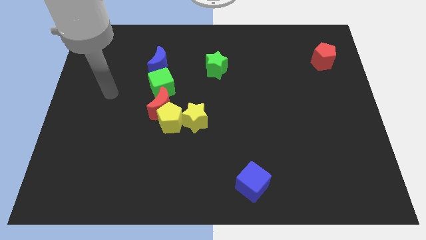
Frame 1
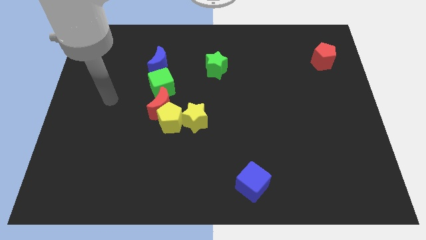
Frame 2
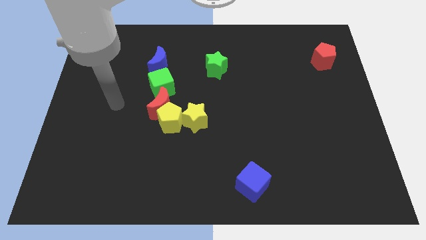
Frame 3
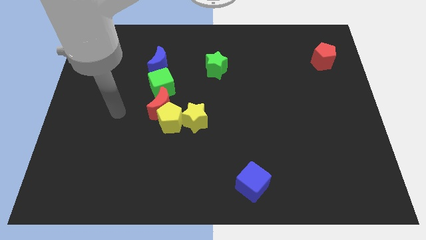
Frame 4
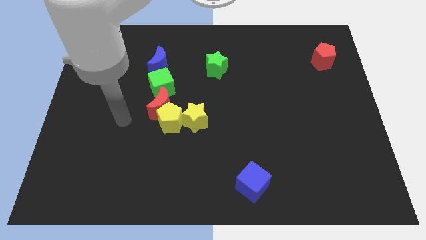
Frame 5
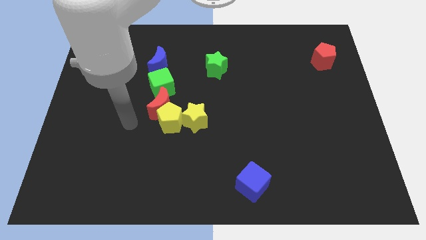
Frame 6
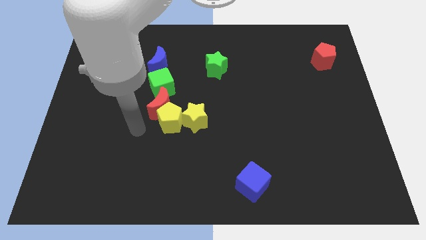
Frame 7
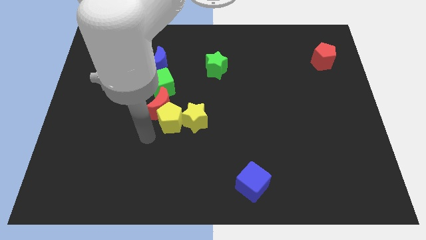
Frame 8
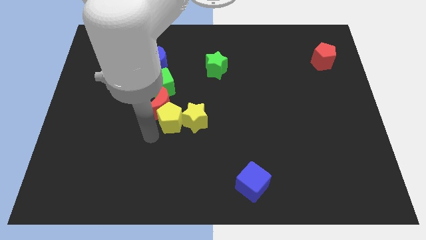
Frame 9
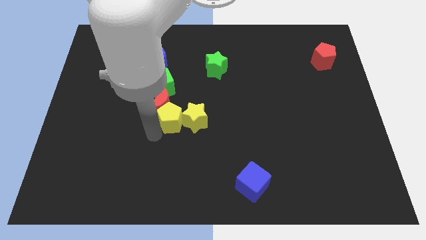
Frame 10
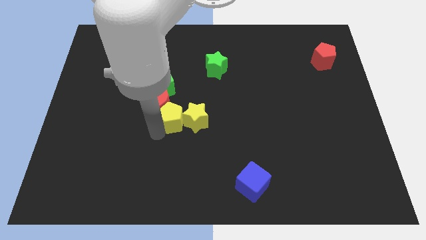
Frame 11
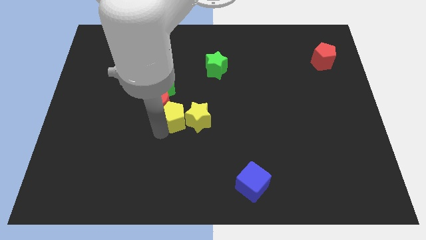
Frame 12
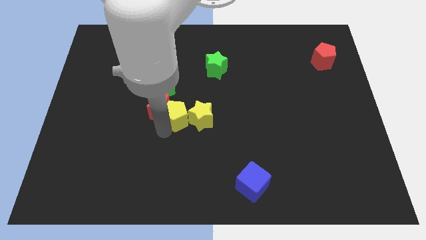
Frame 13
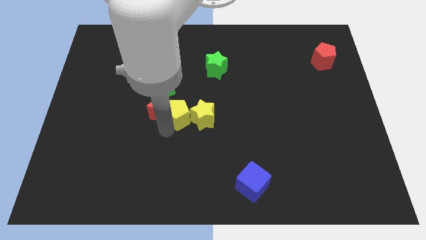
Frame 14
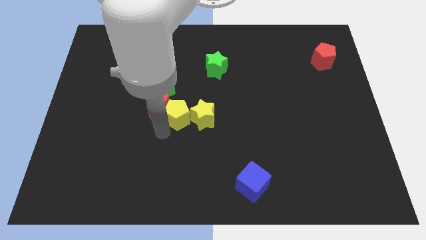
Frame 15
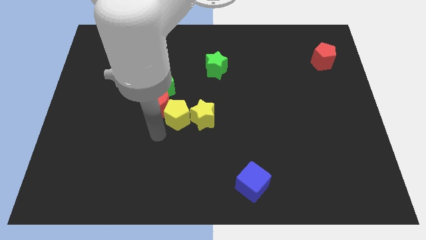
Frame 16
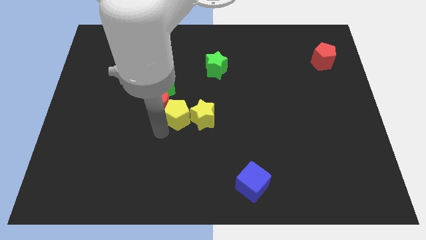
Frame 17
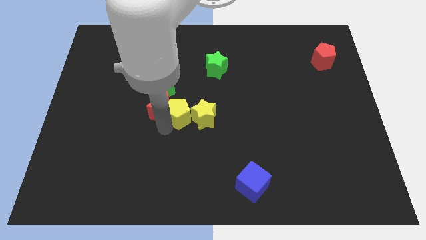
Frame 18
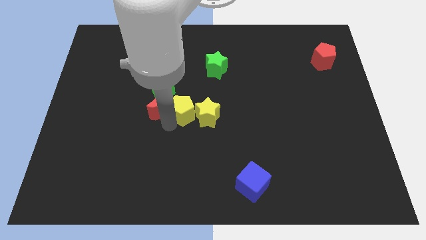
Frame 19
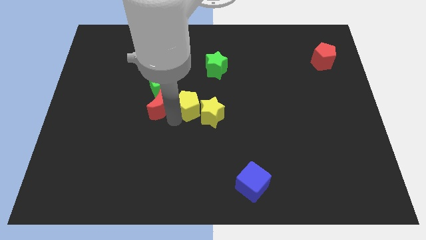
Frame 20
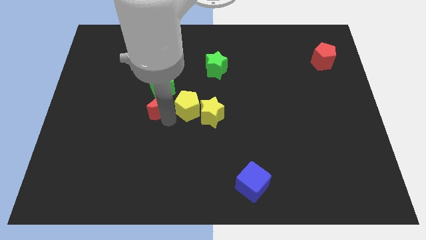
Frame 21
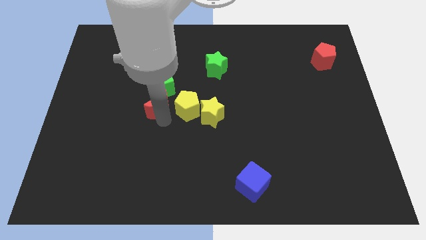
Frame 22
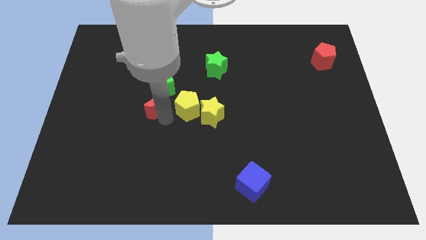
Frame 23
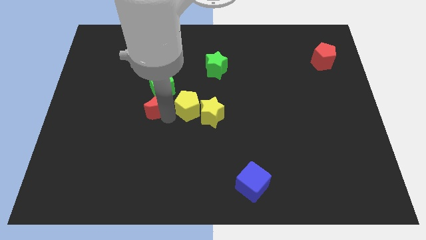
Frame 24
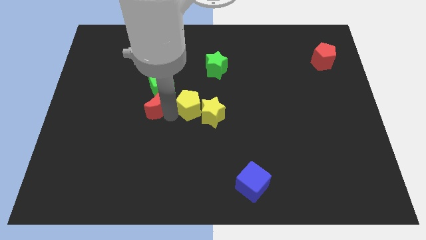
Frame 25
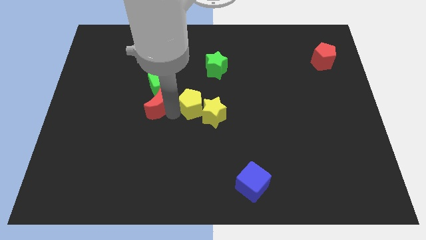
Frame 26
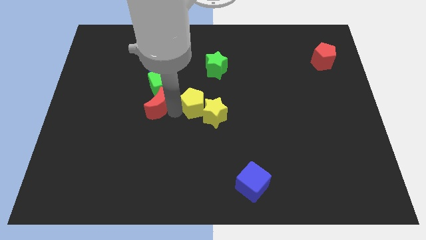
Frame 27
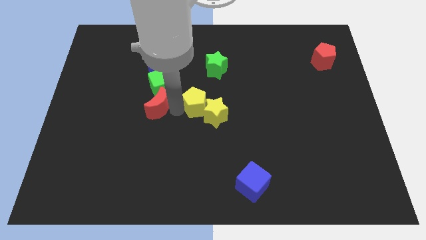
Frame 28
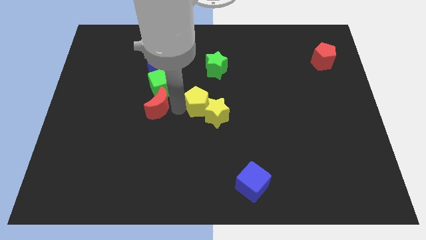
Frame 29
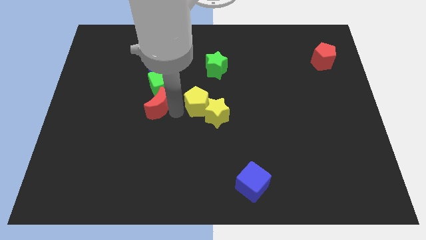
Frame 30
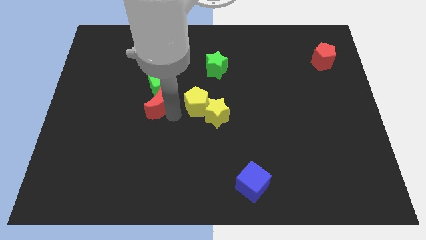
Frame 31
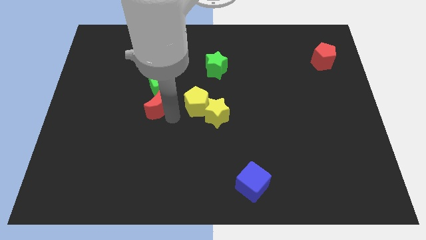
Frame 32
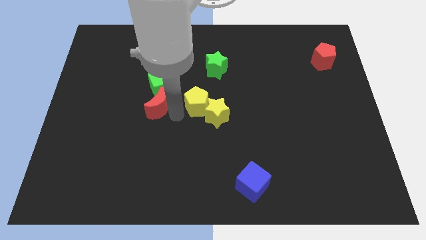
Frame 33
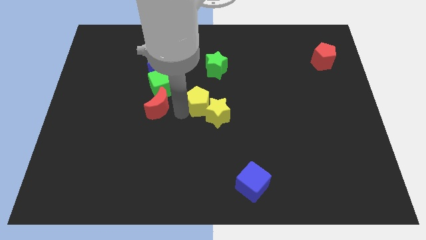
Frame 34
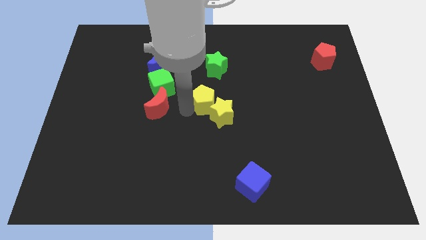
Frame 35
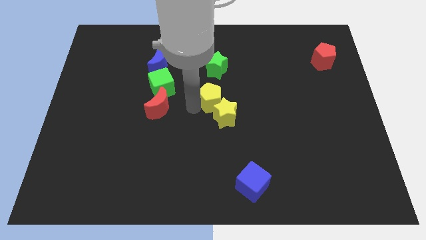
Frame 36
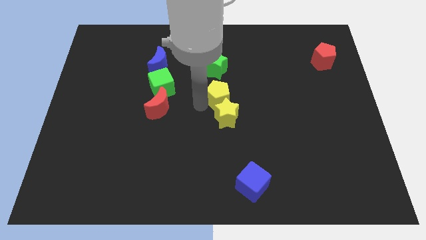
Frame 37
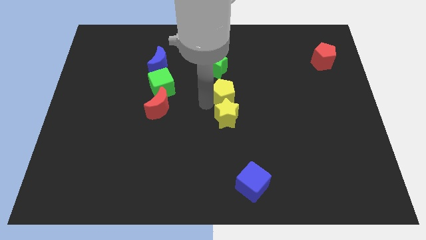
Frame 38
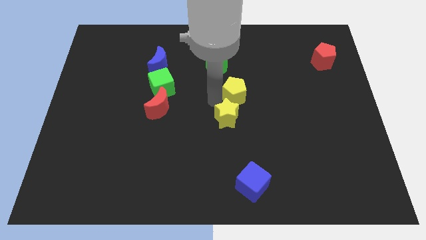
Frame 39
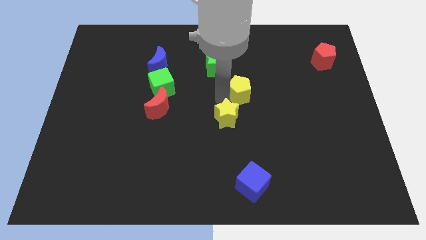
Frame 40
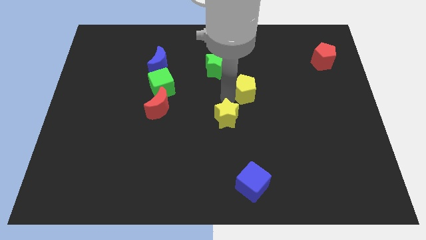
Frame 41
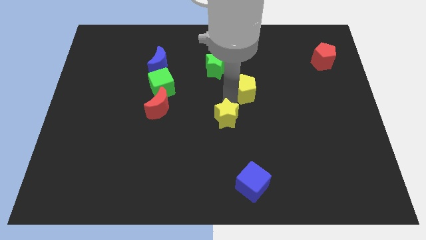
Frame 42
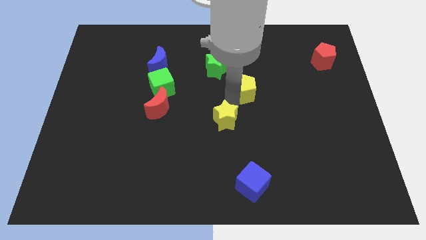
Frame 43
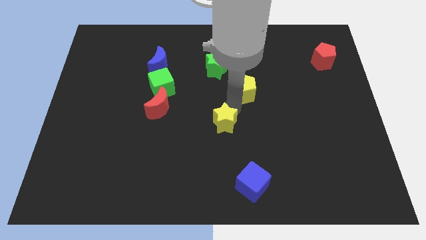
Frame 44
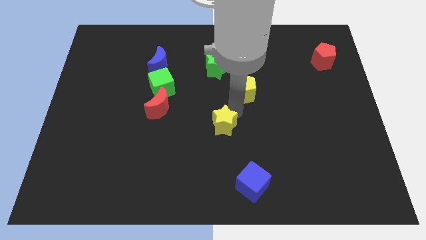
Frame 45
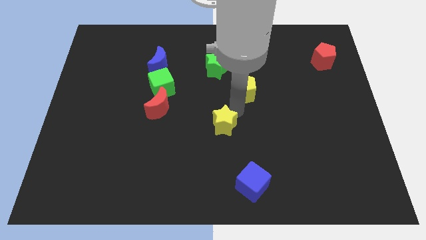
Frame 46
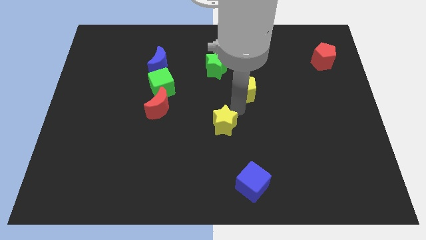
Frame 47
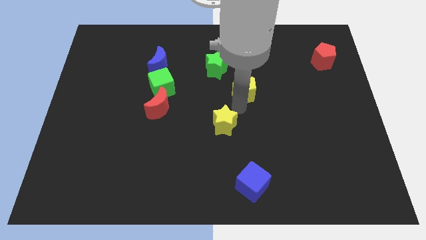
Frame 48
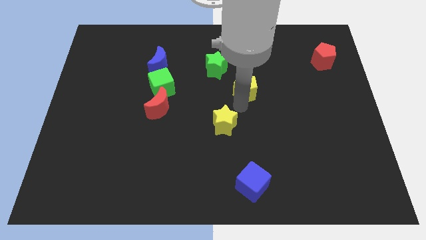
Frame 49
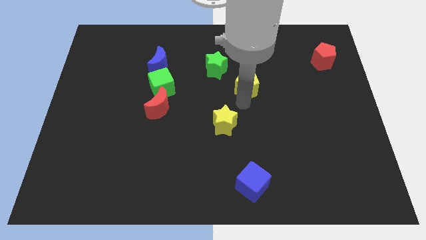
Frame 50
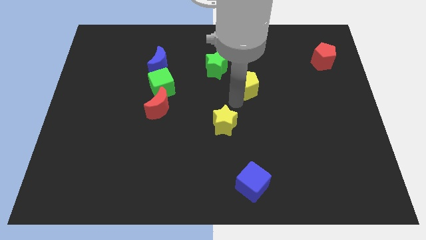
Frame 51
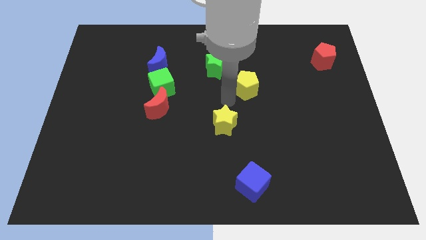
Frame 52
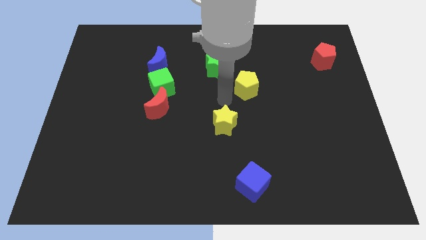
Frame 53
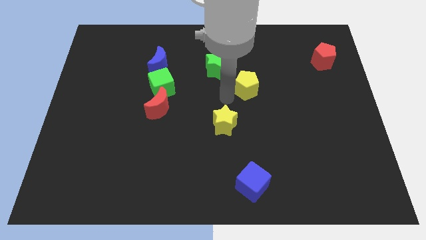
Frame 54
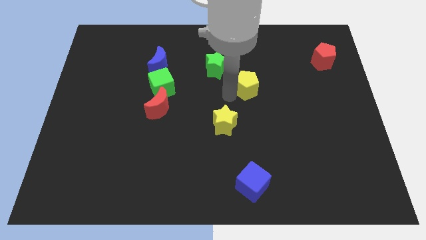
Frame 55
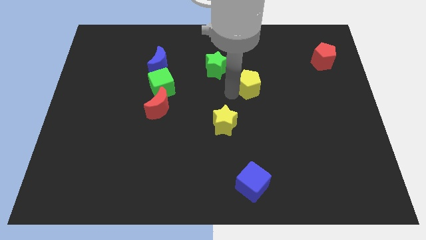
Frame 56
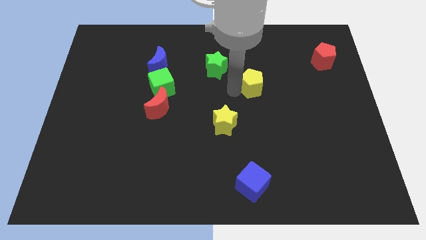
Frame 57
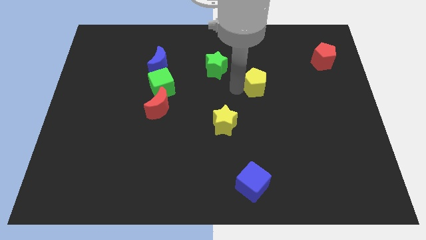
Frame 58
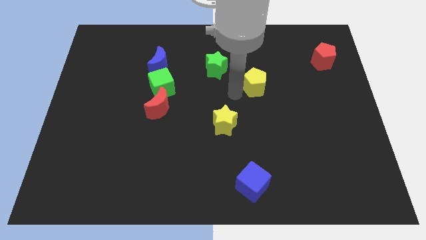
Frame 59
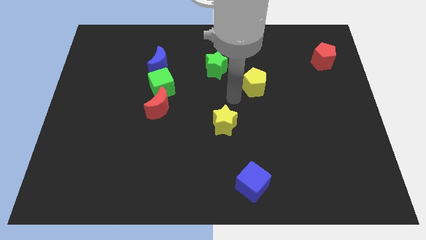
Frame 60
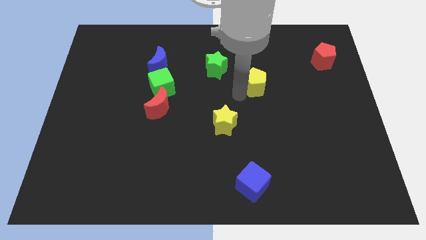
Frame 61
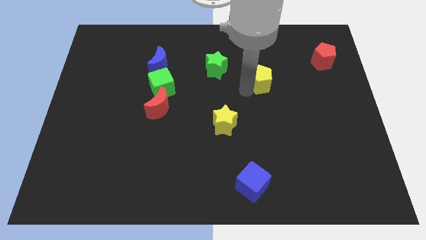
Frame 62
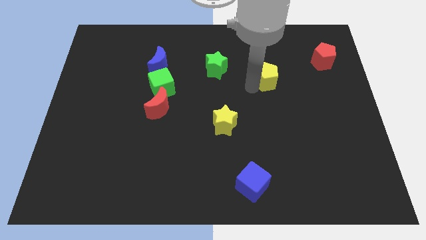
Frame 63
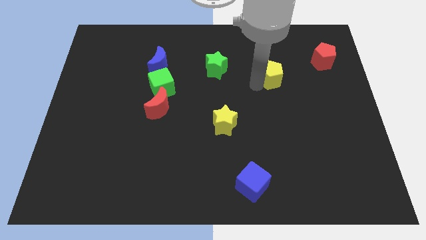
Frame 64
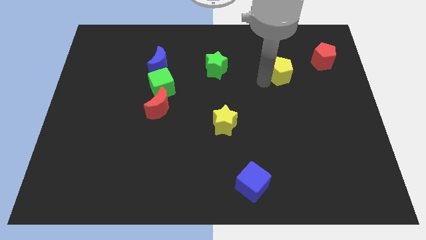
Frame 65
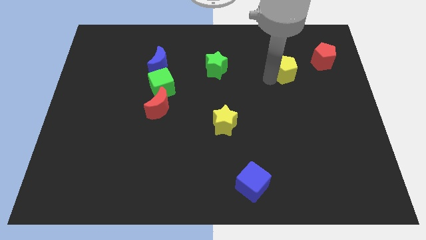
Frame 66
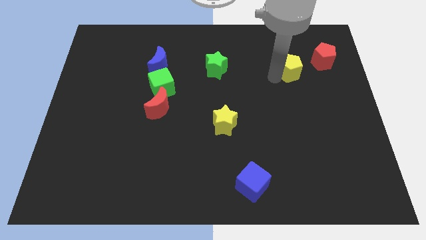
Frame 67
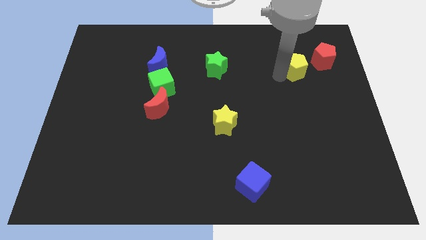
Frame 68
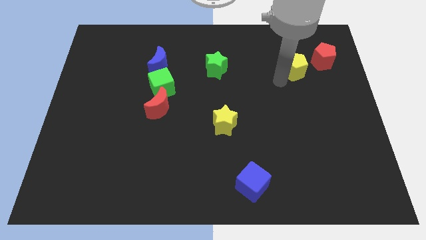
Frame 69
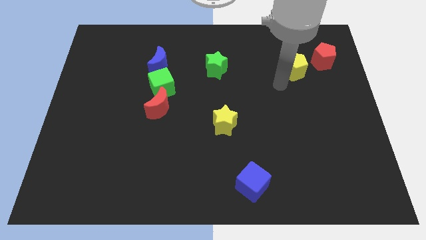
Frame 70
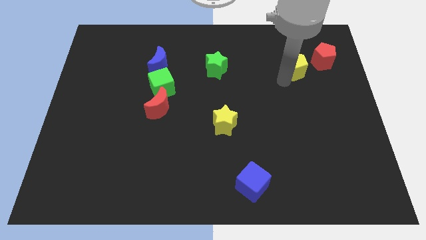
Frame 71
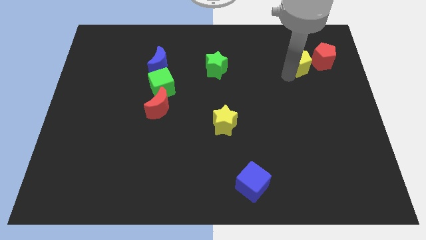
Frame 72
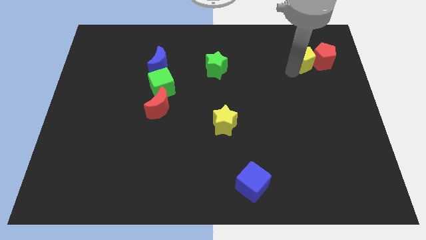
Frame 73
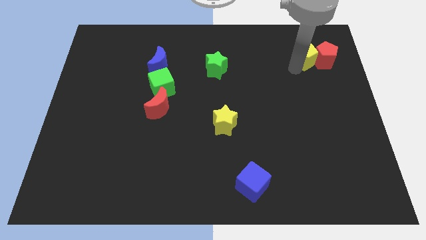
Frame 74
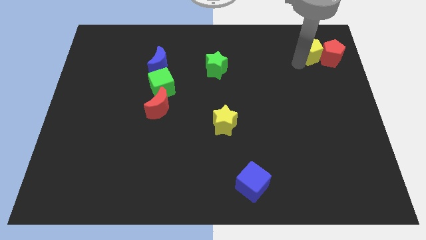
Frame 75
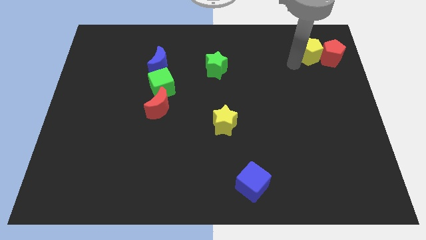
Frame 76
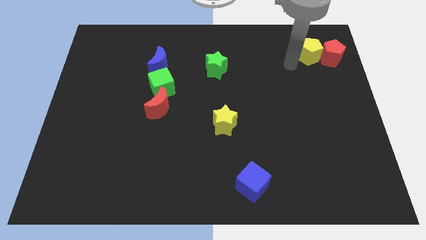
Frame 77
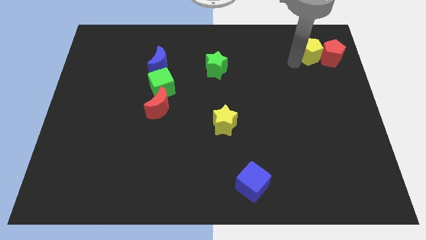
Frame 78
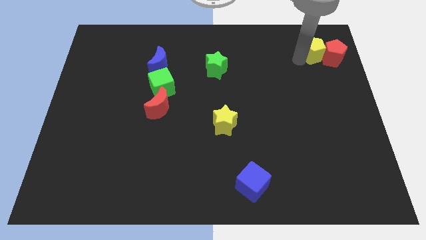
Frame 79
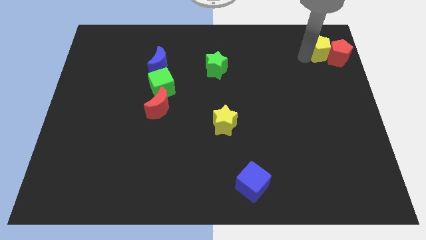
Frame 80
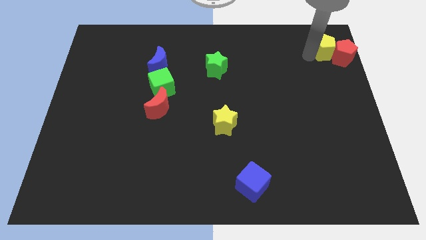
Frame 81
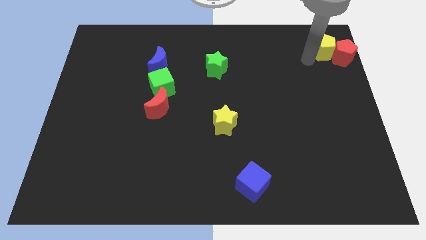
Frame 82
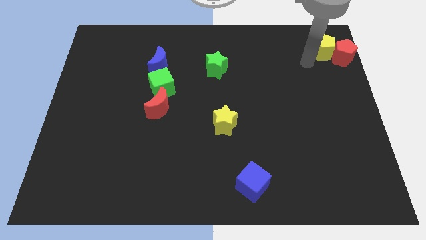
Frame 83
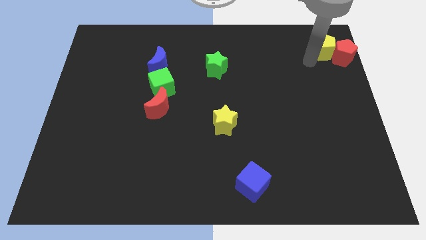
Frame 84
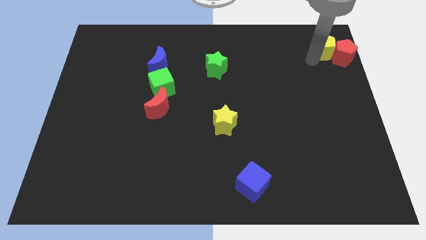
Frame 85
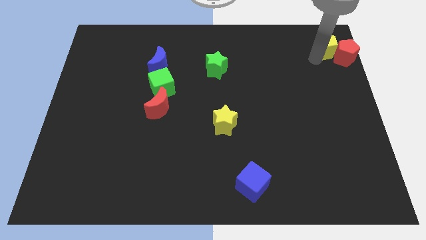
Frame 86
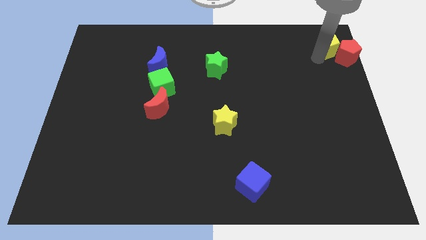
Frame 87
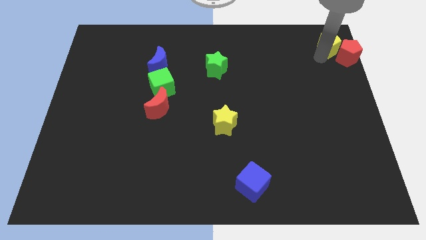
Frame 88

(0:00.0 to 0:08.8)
slide the yellow pentagon to the upper right corner
